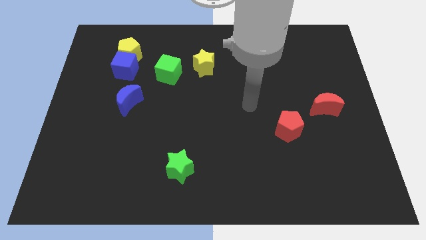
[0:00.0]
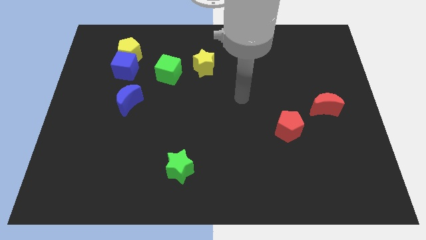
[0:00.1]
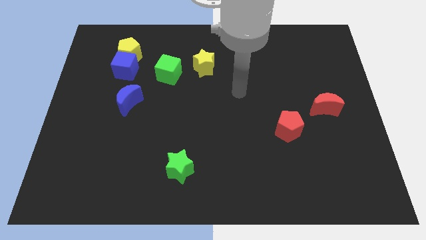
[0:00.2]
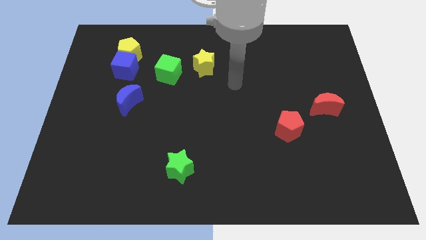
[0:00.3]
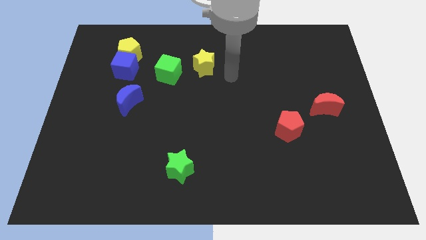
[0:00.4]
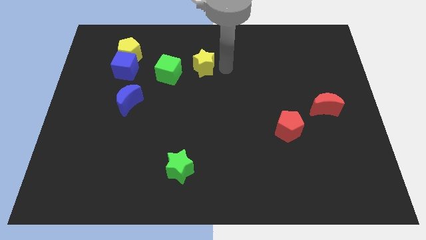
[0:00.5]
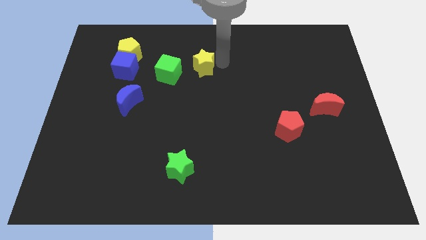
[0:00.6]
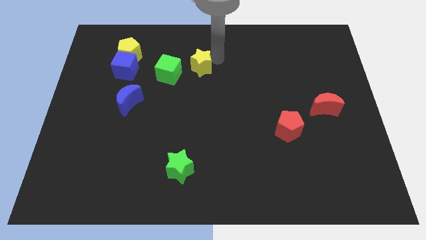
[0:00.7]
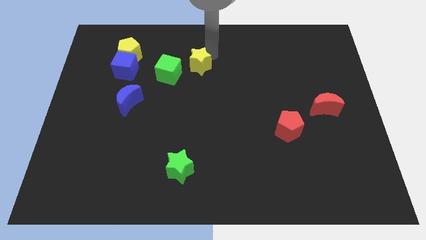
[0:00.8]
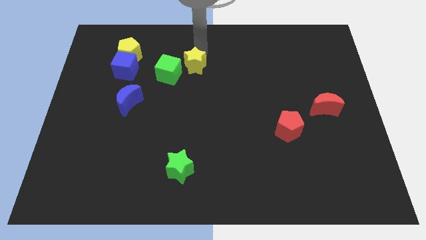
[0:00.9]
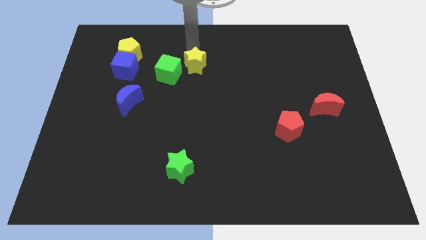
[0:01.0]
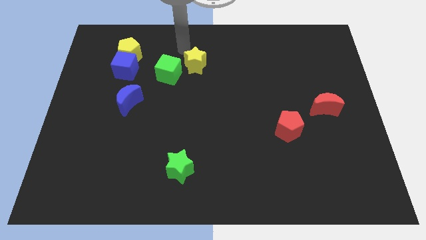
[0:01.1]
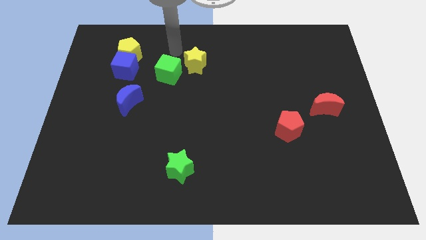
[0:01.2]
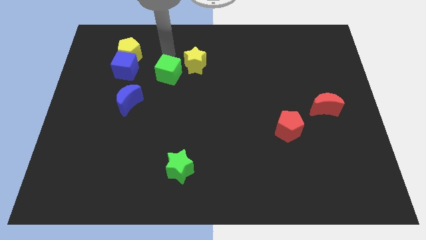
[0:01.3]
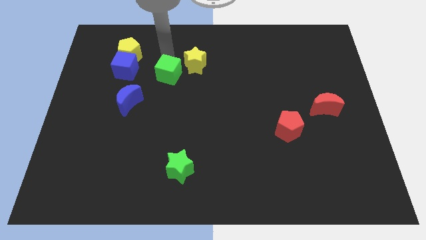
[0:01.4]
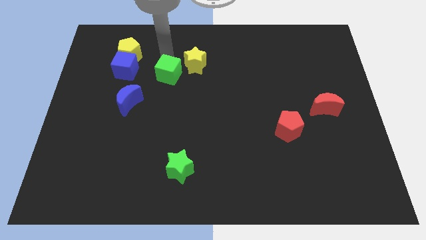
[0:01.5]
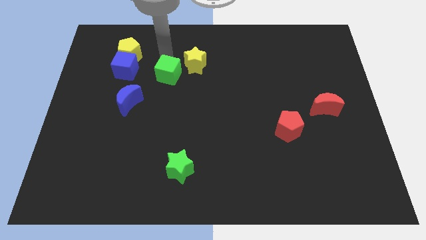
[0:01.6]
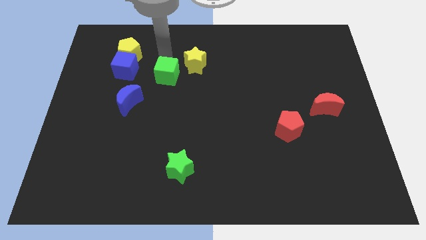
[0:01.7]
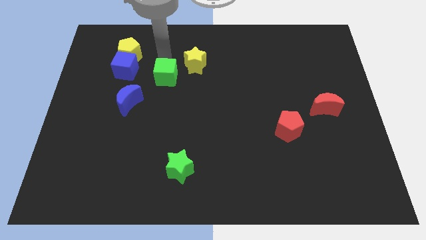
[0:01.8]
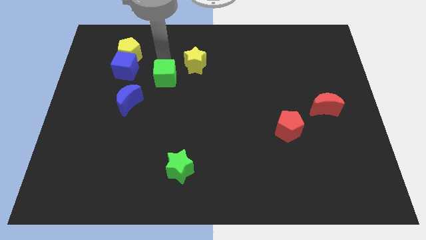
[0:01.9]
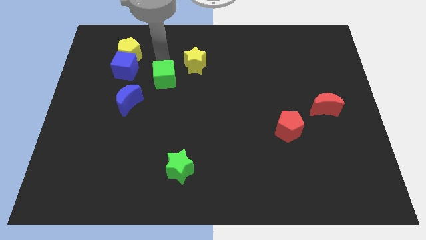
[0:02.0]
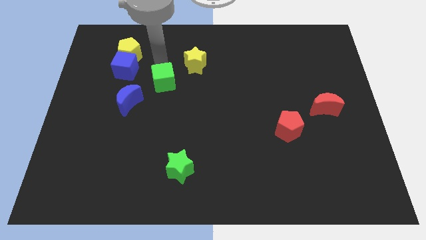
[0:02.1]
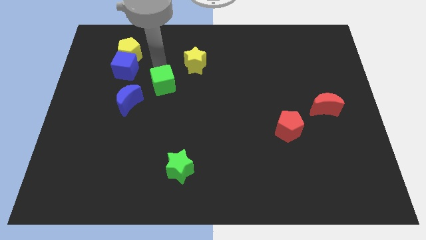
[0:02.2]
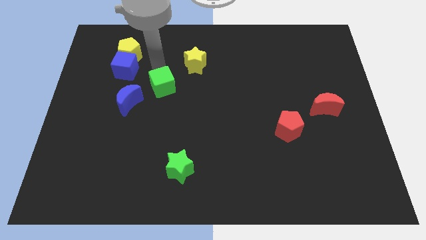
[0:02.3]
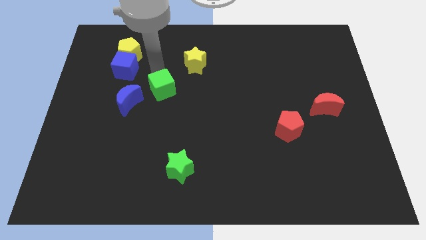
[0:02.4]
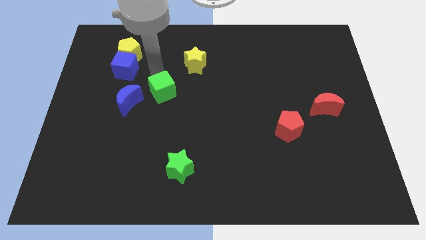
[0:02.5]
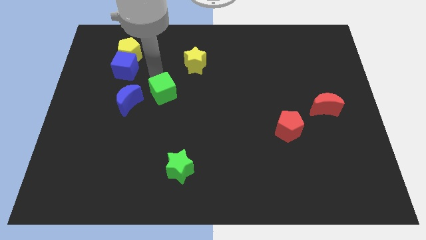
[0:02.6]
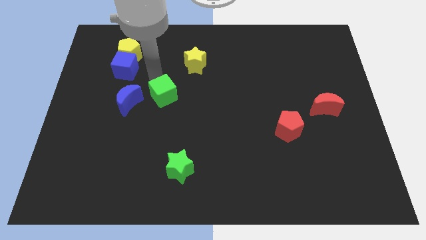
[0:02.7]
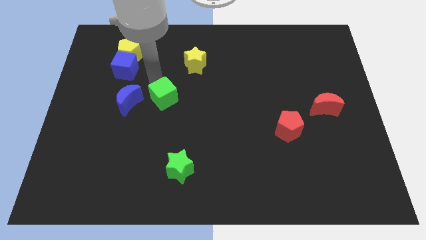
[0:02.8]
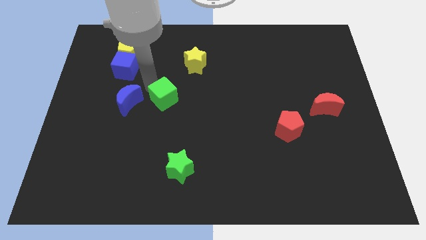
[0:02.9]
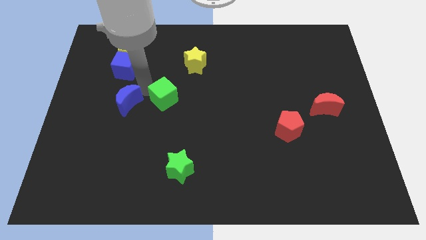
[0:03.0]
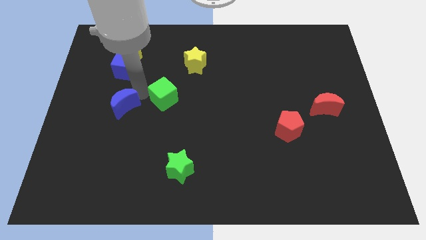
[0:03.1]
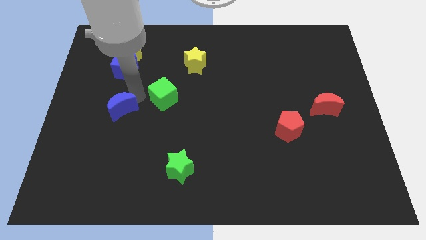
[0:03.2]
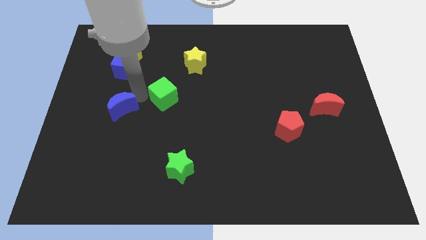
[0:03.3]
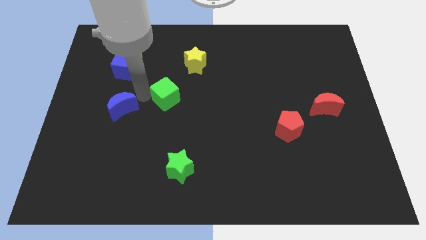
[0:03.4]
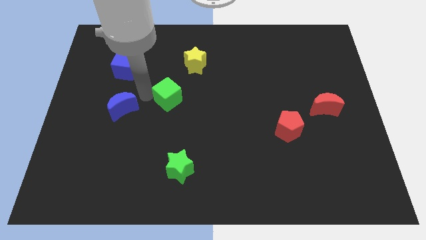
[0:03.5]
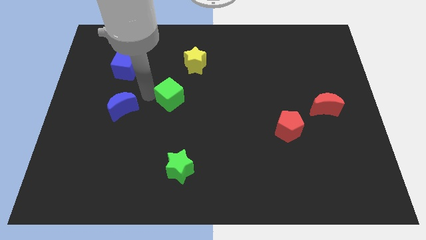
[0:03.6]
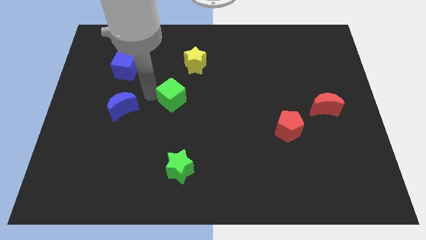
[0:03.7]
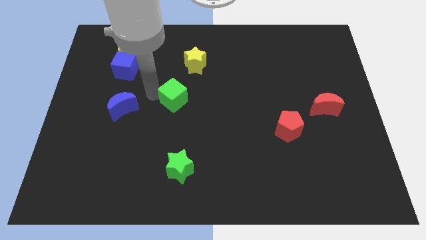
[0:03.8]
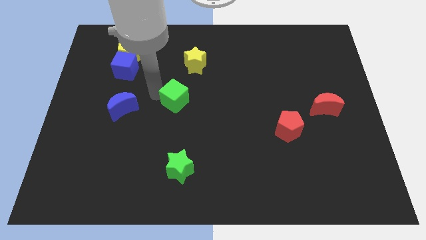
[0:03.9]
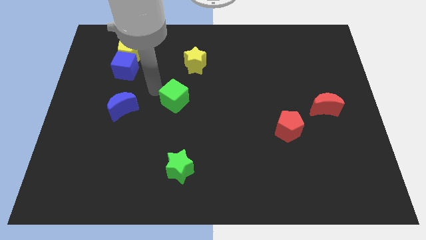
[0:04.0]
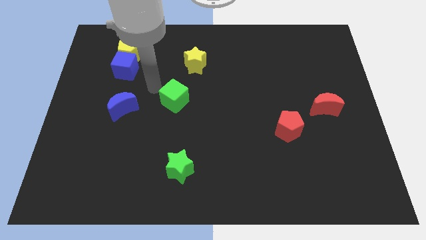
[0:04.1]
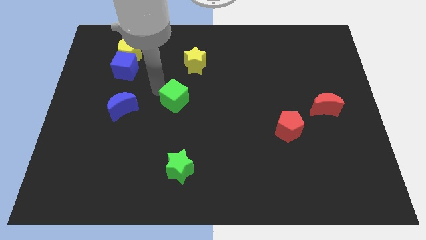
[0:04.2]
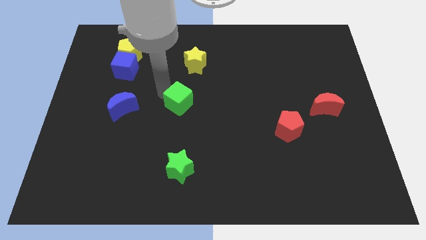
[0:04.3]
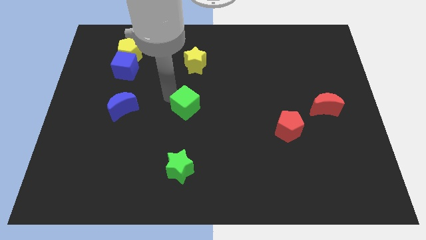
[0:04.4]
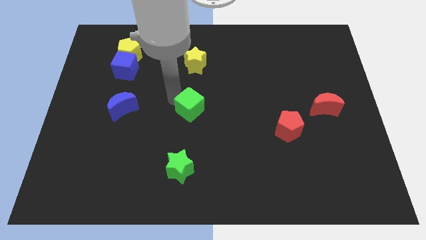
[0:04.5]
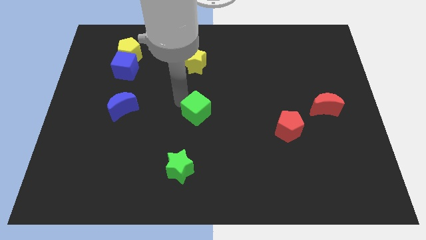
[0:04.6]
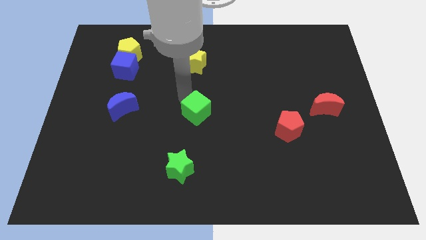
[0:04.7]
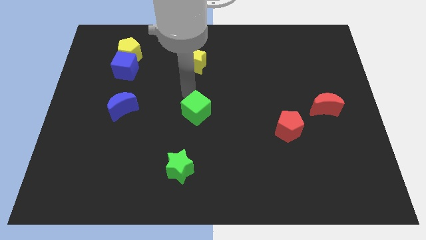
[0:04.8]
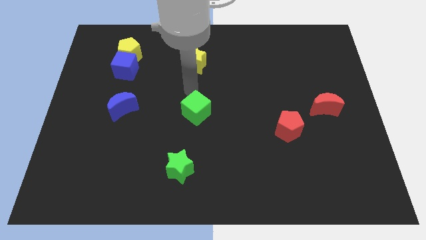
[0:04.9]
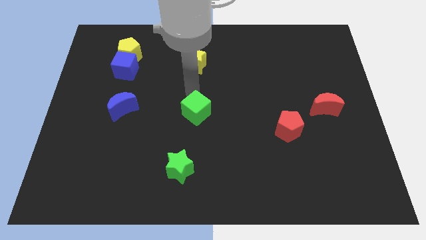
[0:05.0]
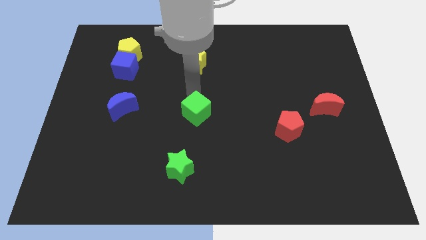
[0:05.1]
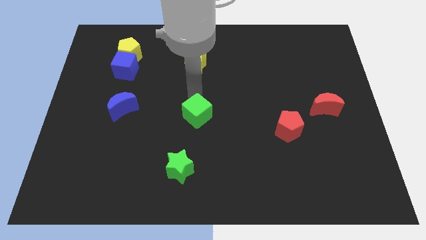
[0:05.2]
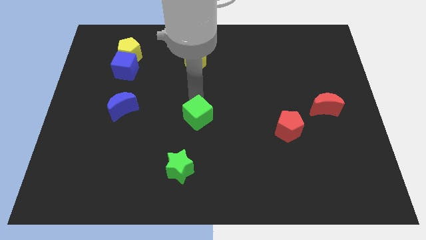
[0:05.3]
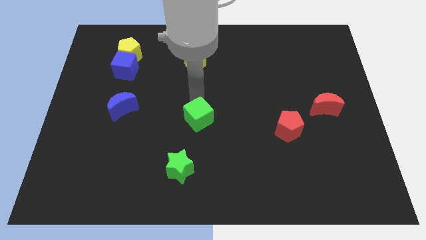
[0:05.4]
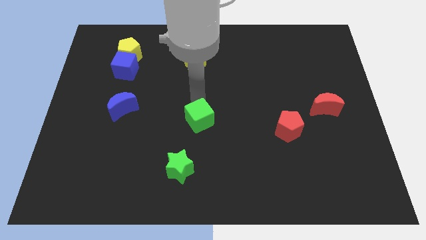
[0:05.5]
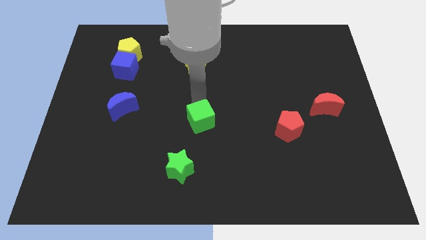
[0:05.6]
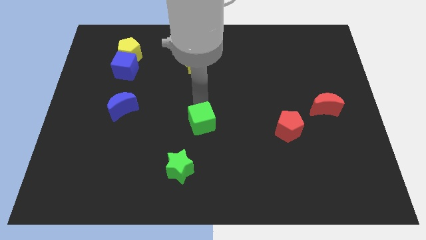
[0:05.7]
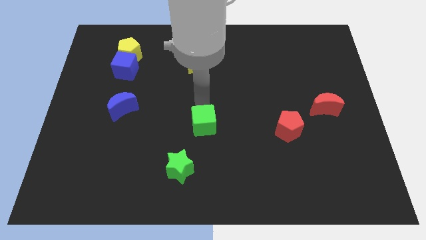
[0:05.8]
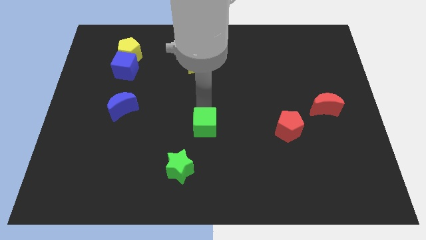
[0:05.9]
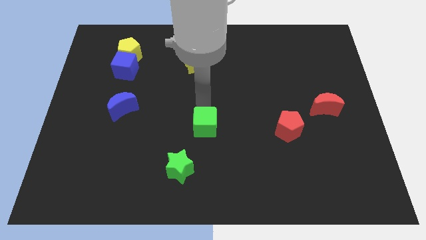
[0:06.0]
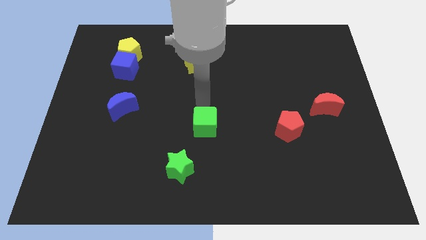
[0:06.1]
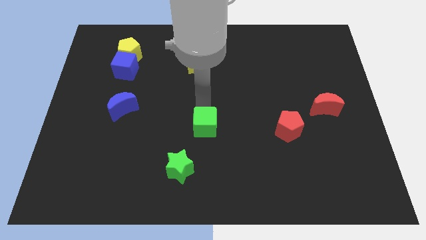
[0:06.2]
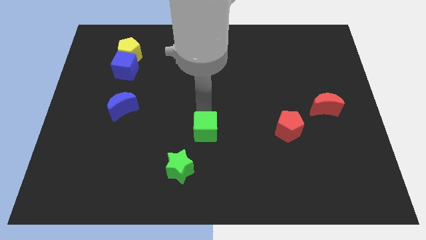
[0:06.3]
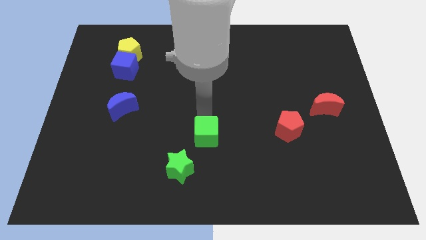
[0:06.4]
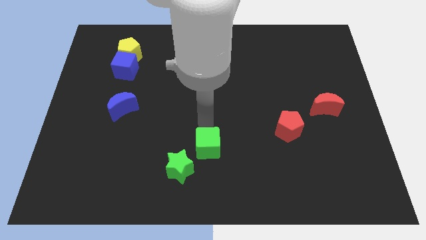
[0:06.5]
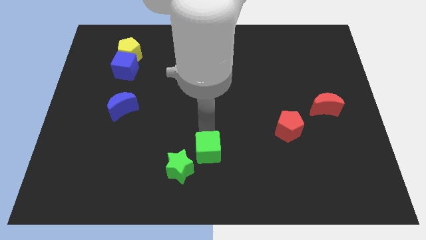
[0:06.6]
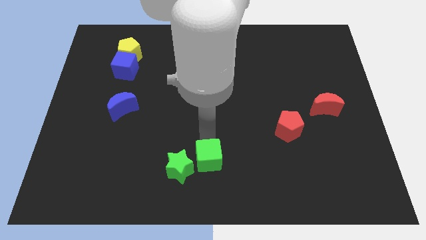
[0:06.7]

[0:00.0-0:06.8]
push the green cube to the bottom
